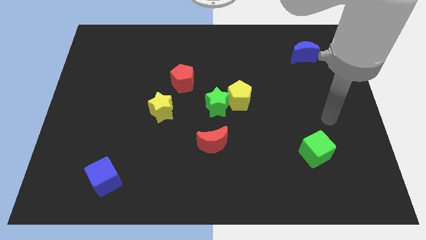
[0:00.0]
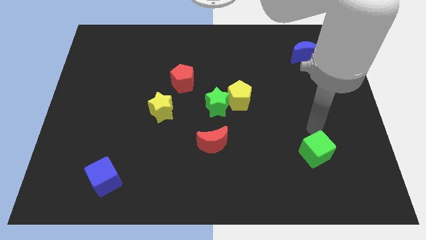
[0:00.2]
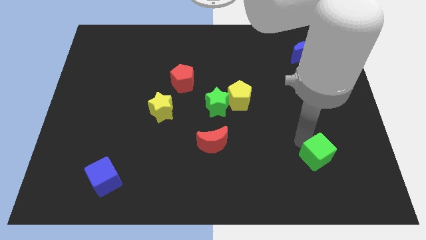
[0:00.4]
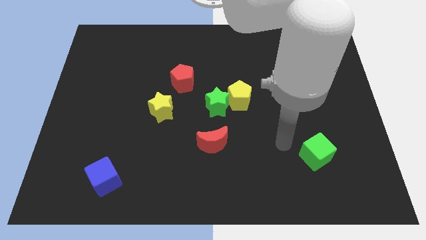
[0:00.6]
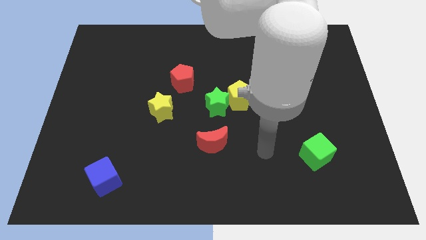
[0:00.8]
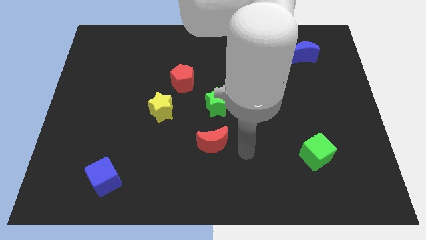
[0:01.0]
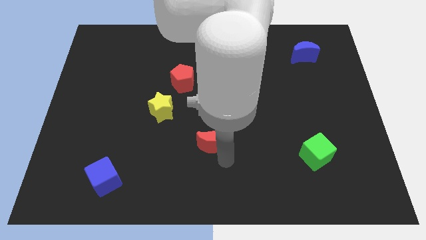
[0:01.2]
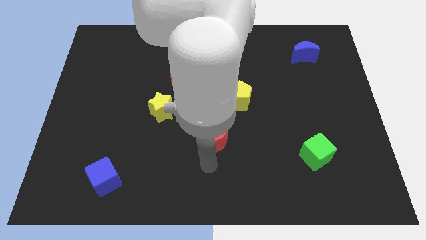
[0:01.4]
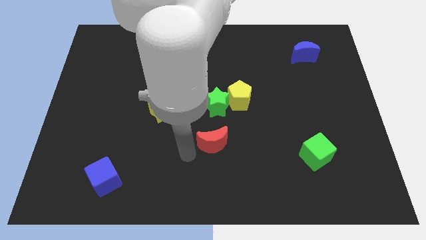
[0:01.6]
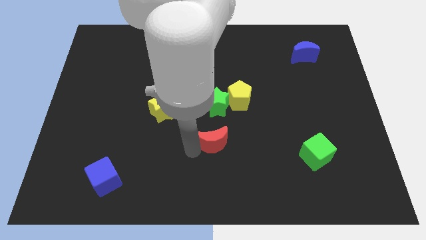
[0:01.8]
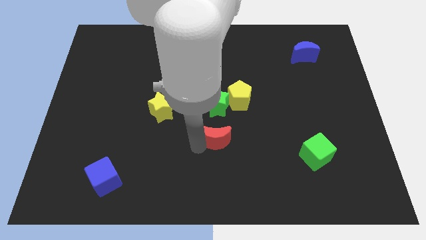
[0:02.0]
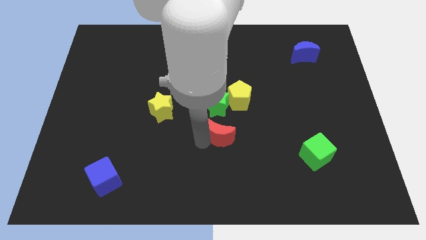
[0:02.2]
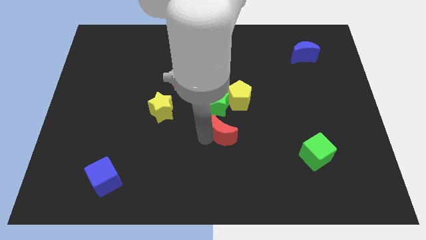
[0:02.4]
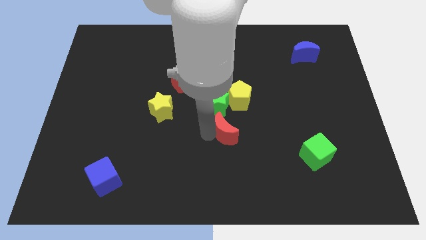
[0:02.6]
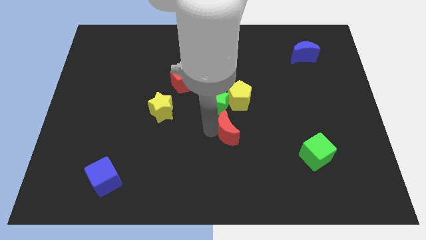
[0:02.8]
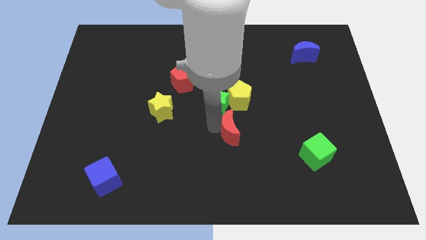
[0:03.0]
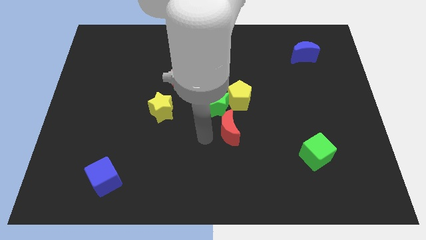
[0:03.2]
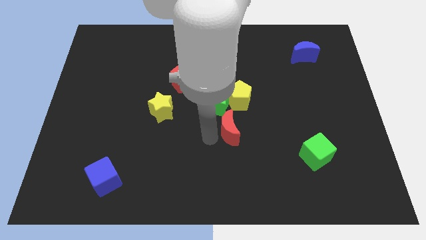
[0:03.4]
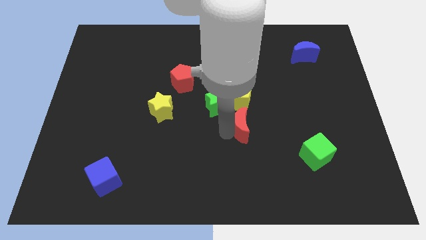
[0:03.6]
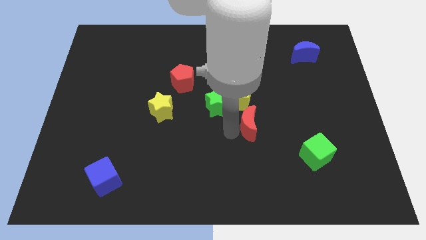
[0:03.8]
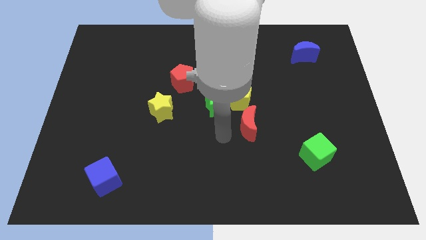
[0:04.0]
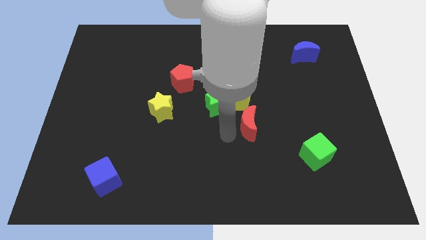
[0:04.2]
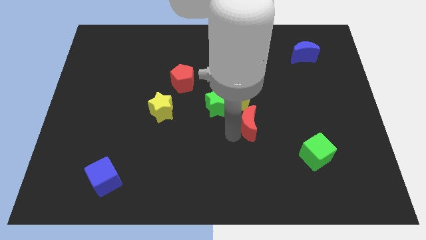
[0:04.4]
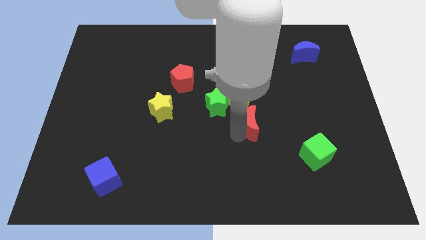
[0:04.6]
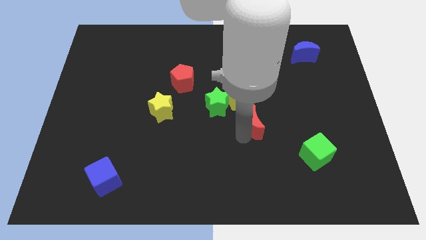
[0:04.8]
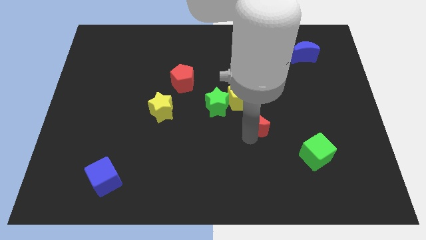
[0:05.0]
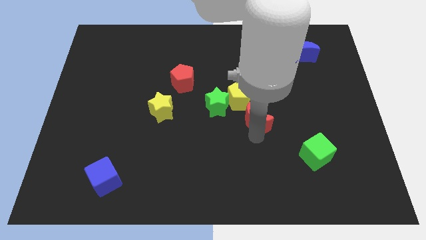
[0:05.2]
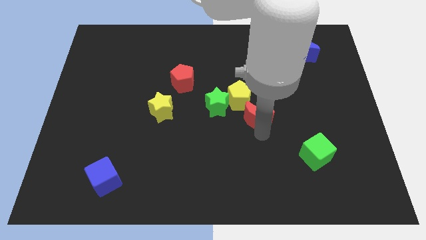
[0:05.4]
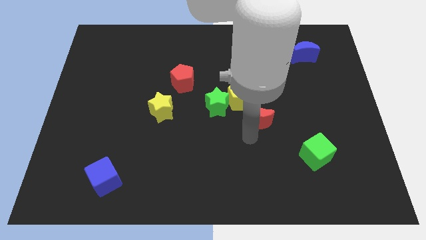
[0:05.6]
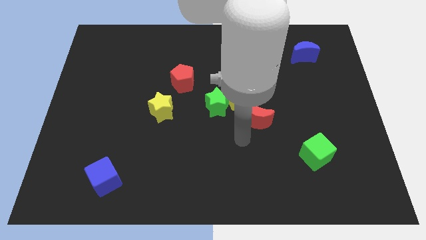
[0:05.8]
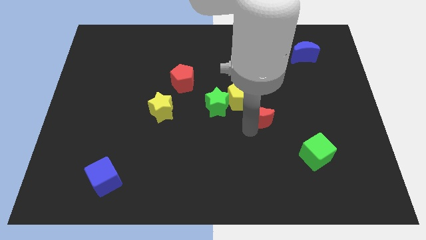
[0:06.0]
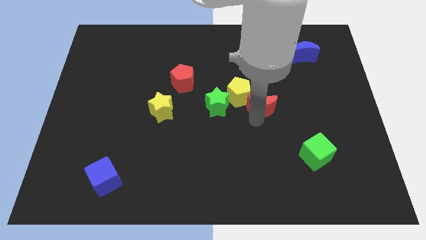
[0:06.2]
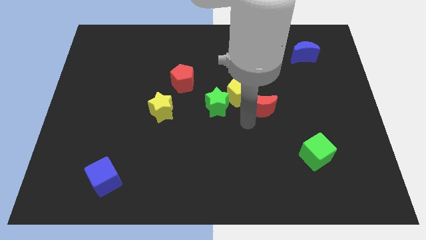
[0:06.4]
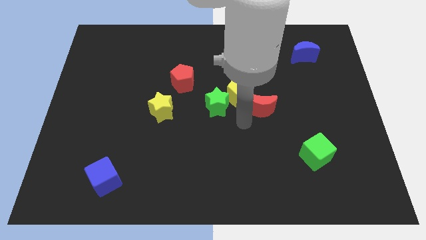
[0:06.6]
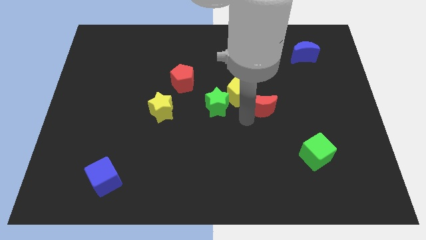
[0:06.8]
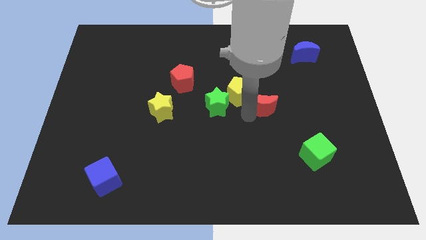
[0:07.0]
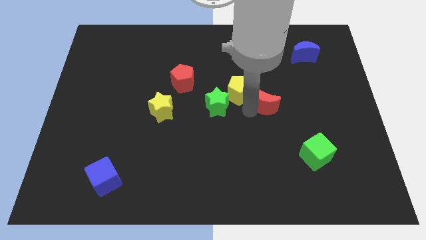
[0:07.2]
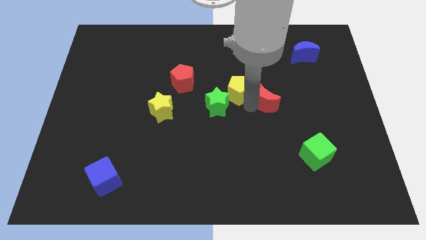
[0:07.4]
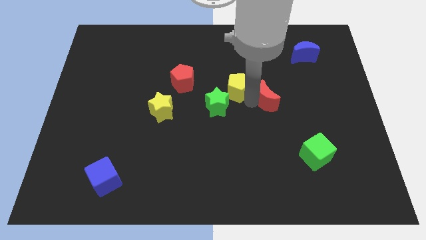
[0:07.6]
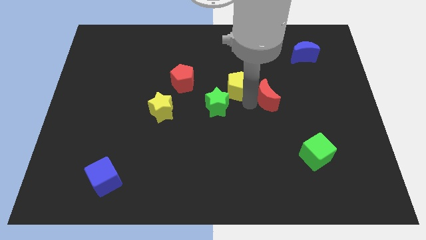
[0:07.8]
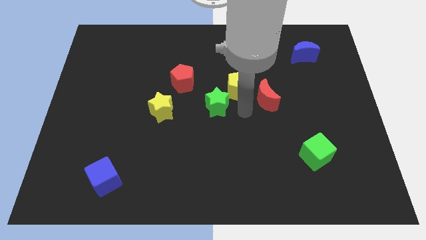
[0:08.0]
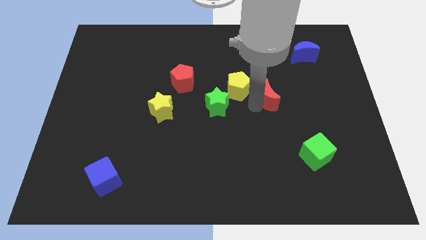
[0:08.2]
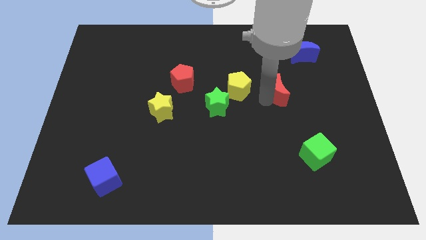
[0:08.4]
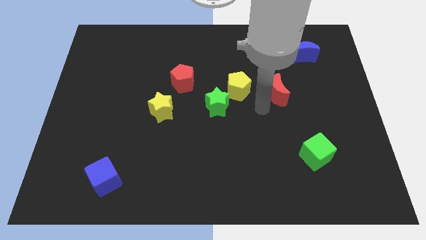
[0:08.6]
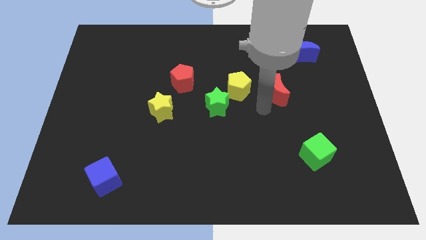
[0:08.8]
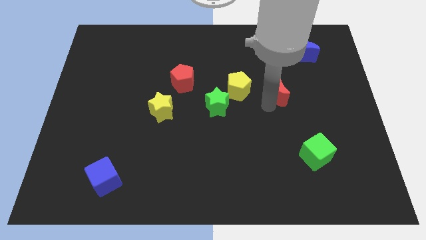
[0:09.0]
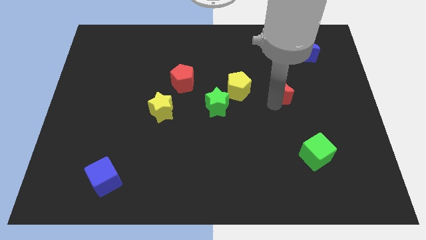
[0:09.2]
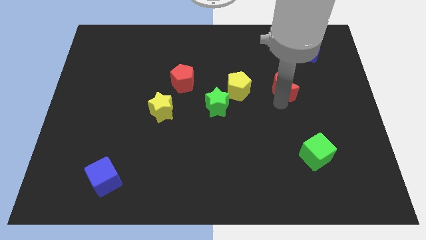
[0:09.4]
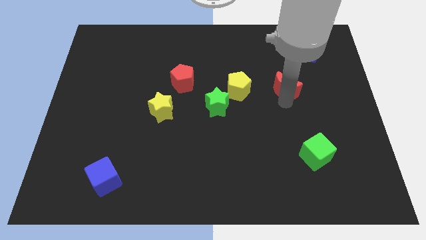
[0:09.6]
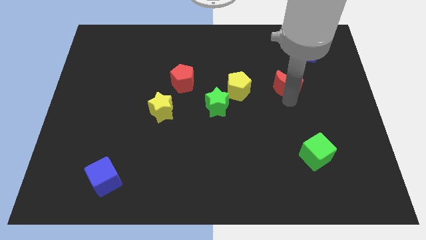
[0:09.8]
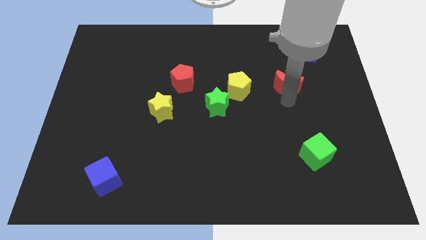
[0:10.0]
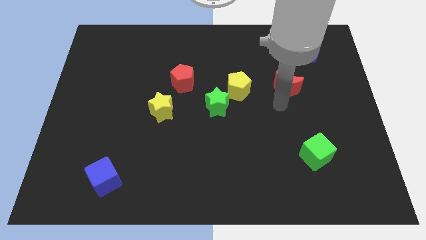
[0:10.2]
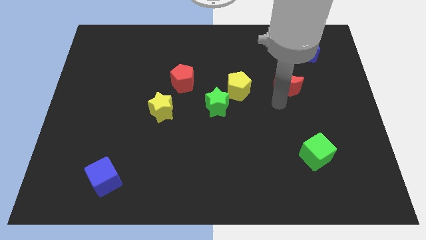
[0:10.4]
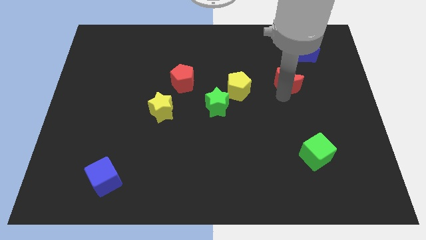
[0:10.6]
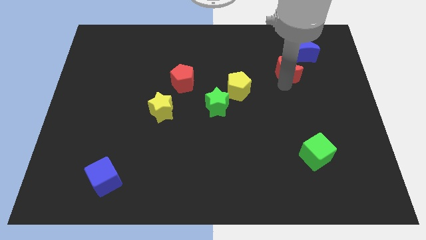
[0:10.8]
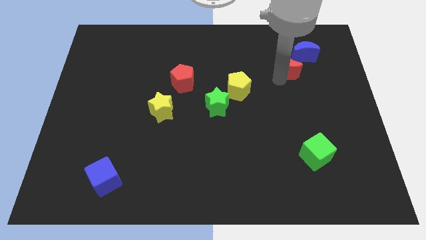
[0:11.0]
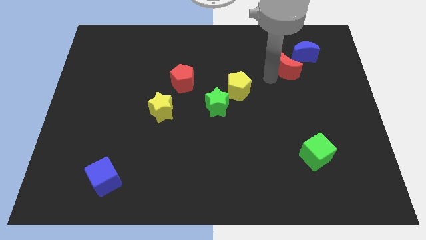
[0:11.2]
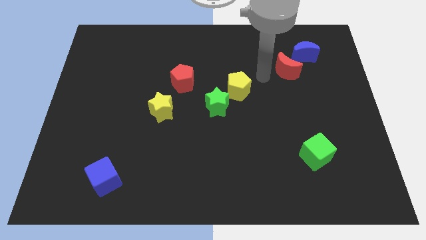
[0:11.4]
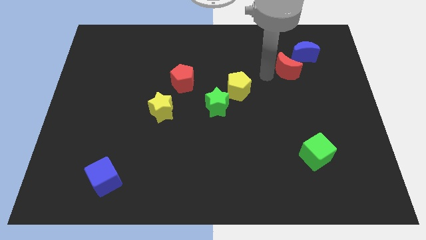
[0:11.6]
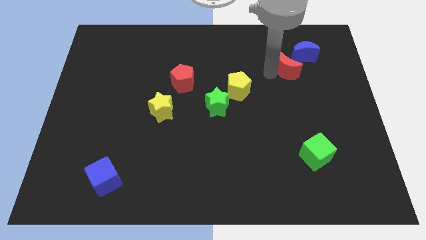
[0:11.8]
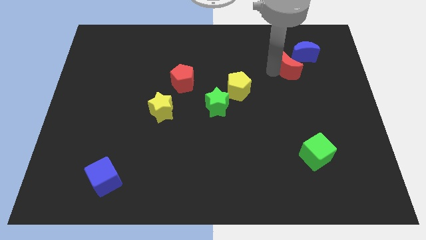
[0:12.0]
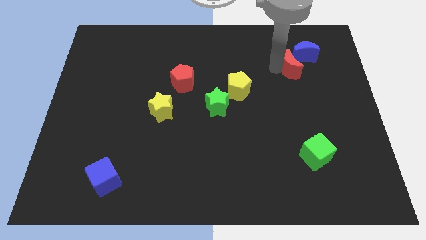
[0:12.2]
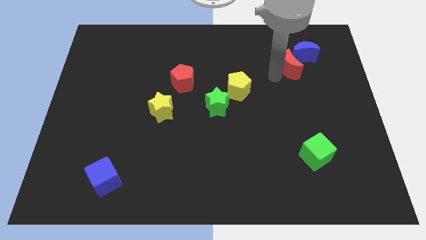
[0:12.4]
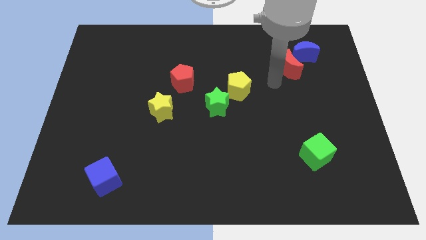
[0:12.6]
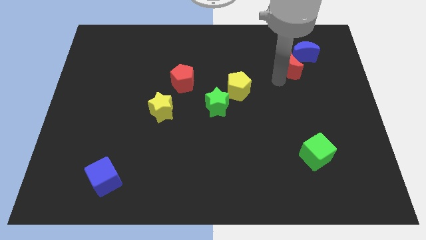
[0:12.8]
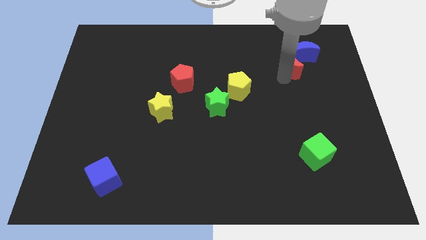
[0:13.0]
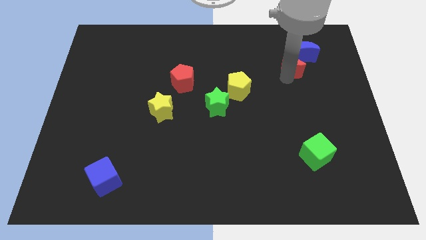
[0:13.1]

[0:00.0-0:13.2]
push the red moon close to the blue moon

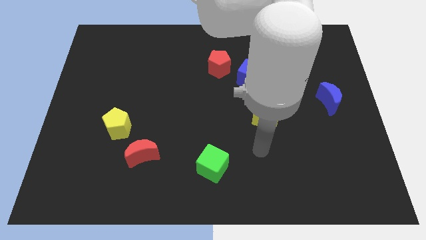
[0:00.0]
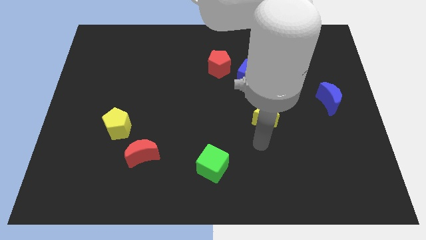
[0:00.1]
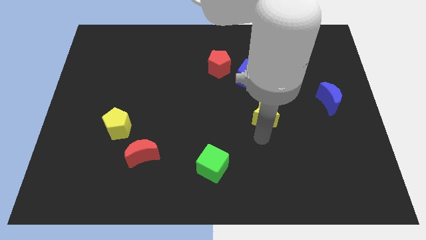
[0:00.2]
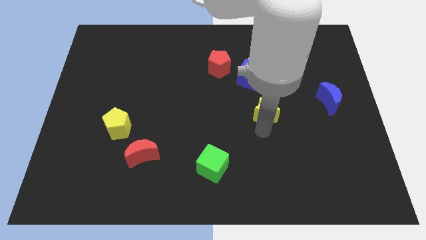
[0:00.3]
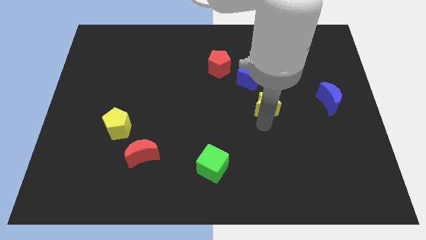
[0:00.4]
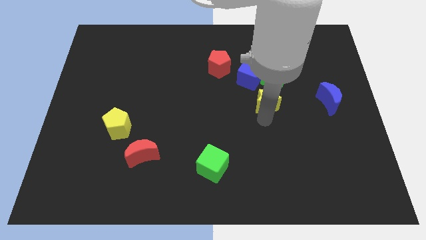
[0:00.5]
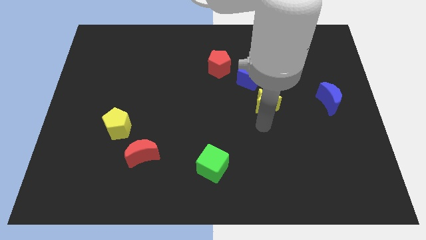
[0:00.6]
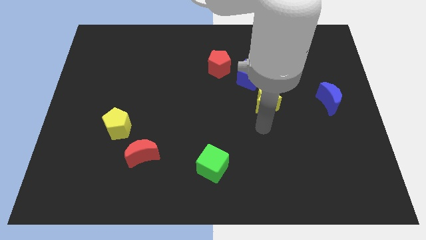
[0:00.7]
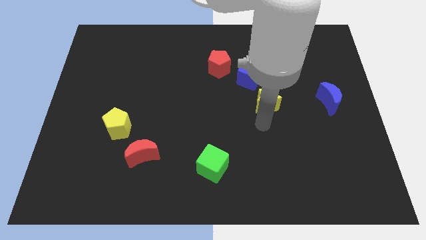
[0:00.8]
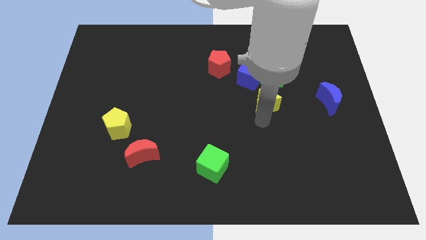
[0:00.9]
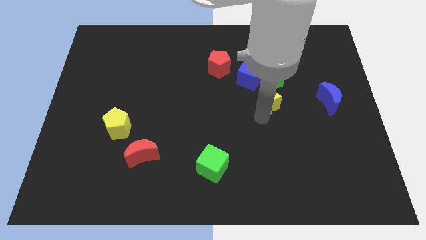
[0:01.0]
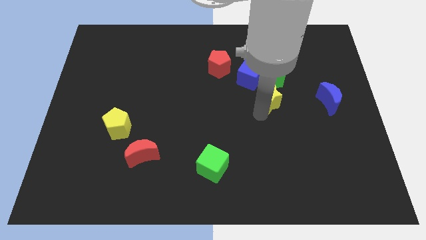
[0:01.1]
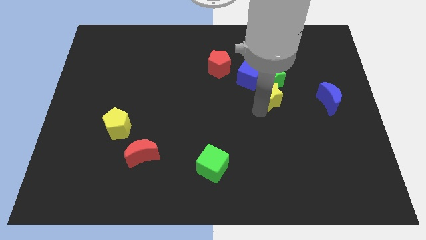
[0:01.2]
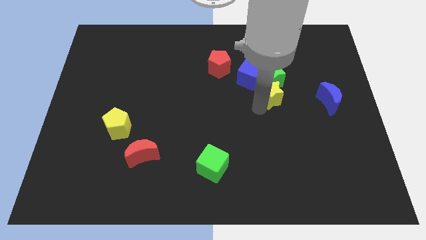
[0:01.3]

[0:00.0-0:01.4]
push the yellow star towards the green star
